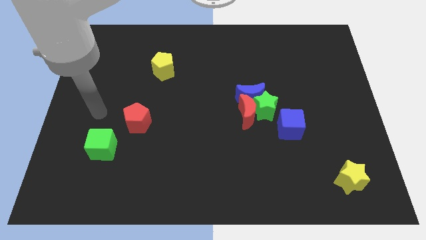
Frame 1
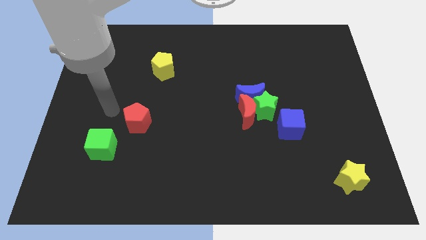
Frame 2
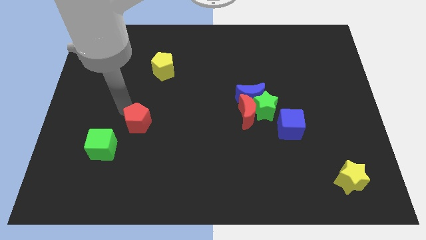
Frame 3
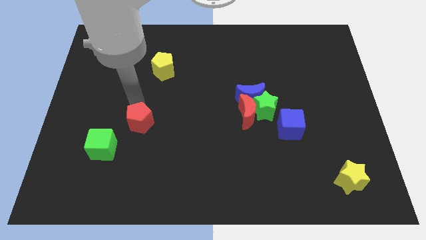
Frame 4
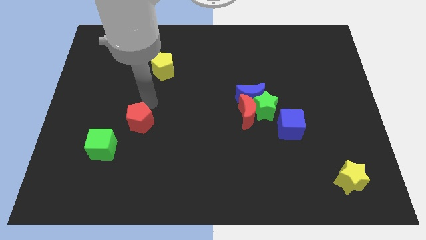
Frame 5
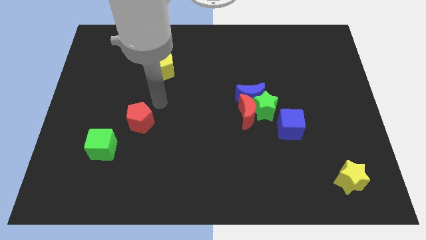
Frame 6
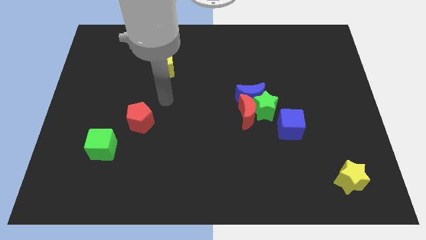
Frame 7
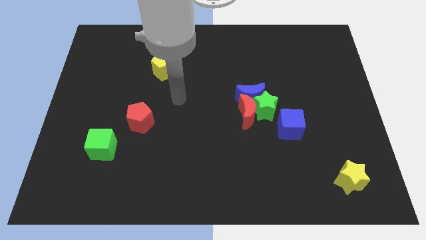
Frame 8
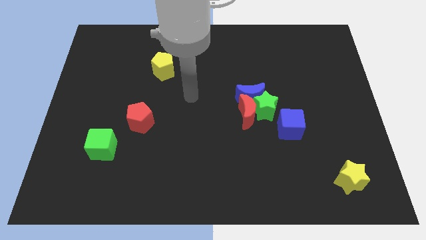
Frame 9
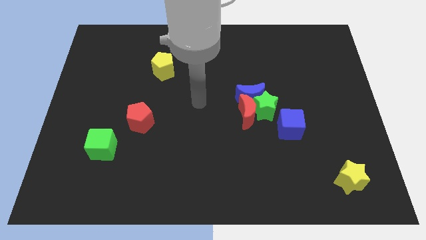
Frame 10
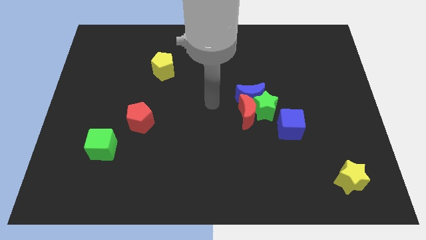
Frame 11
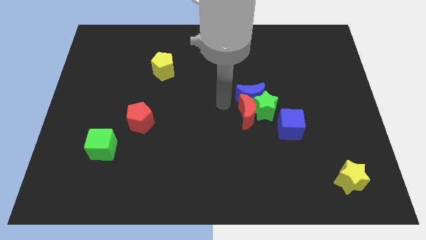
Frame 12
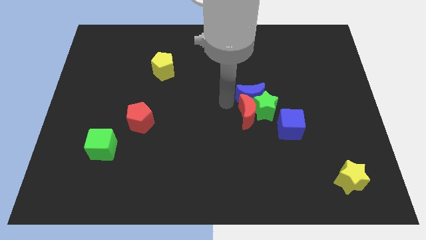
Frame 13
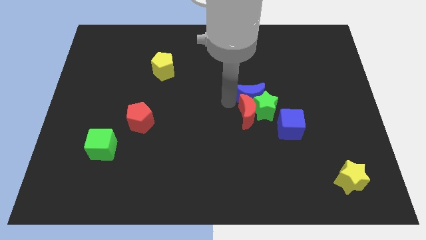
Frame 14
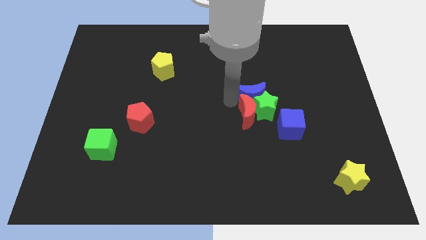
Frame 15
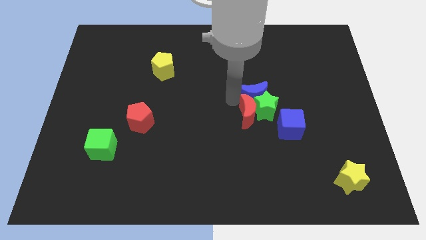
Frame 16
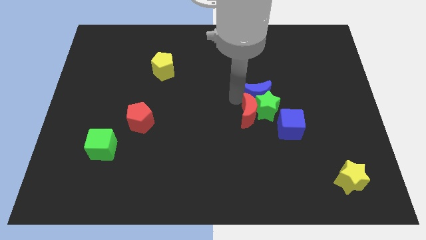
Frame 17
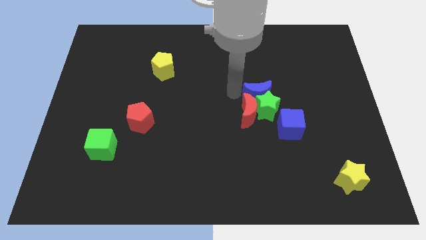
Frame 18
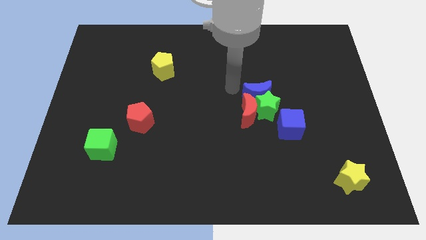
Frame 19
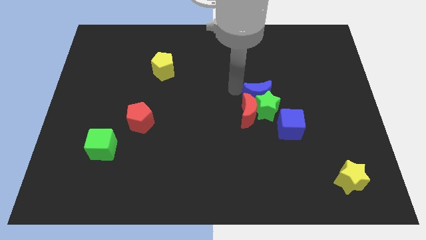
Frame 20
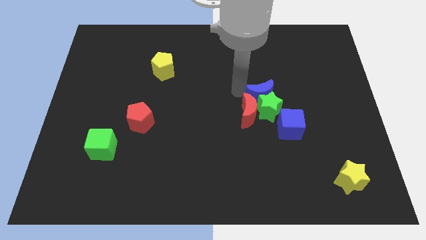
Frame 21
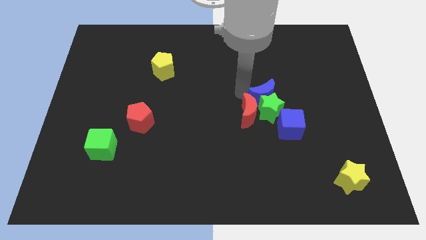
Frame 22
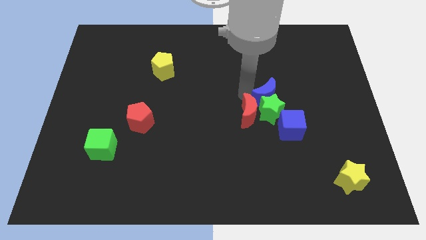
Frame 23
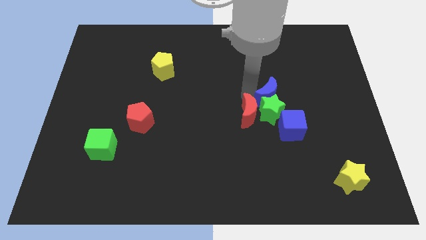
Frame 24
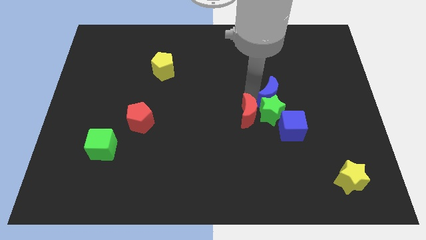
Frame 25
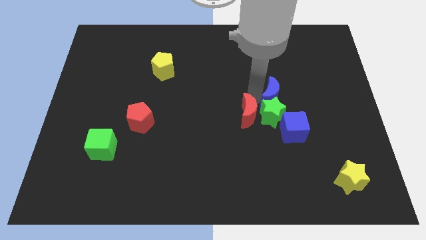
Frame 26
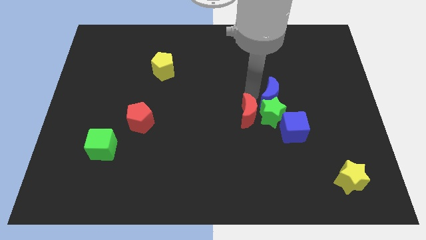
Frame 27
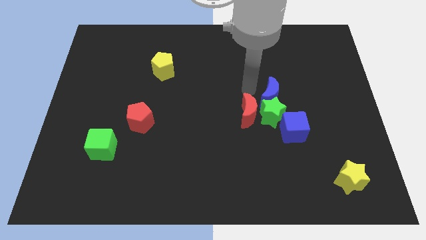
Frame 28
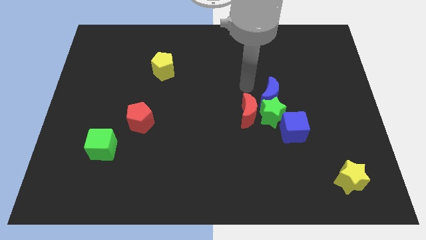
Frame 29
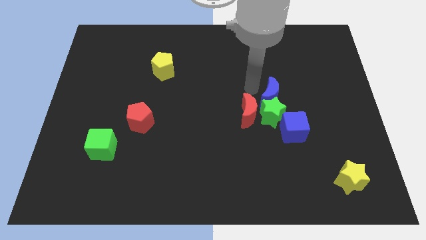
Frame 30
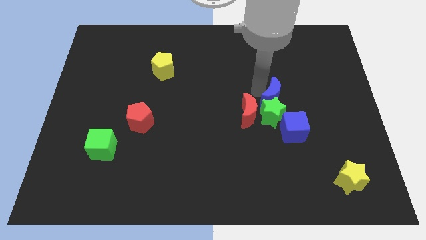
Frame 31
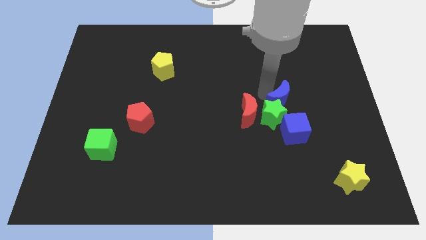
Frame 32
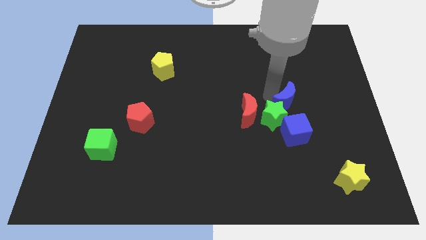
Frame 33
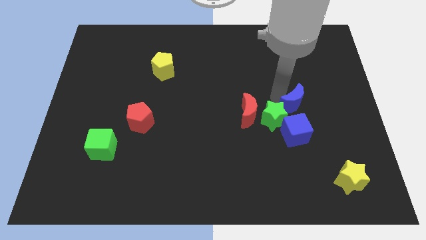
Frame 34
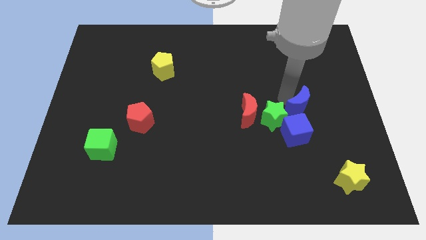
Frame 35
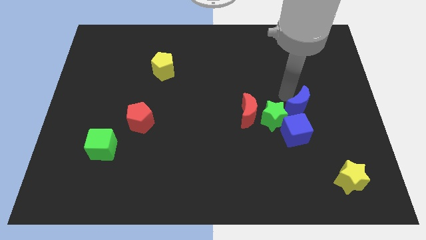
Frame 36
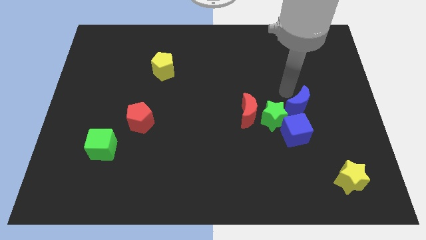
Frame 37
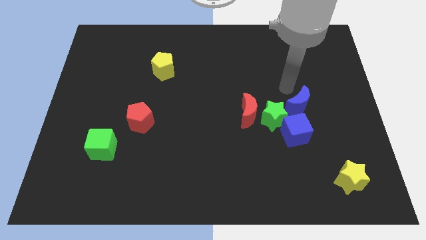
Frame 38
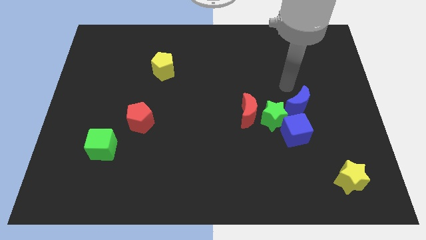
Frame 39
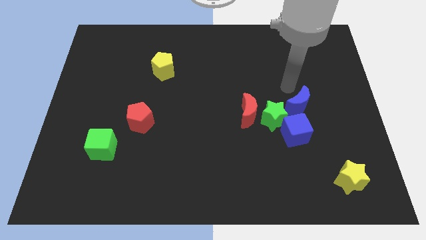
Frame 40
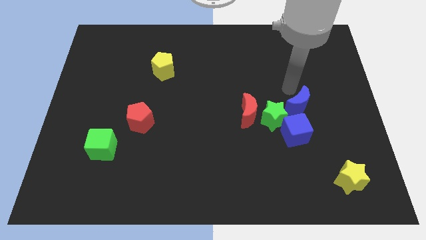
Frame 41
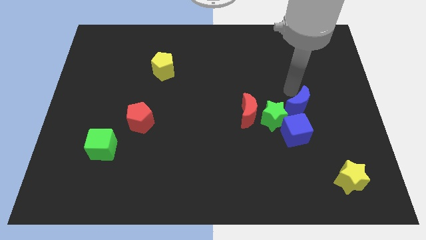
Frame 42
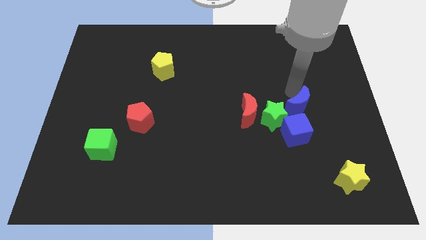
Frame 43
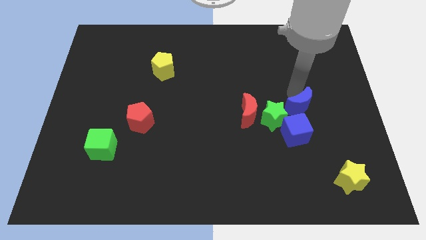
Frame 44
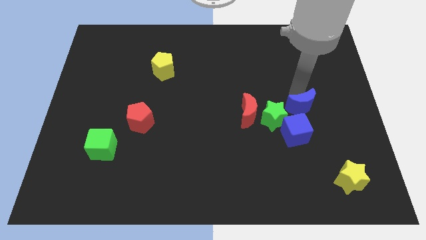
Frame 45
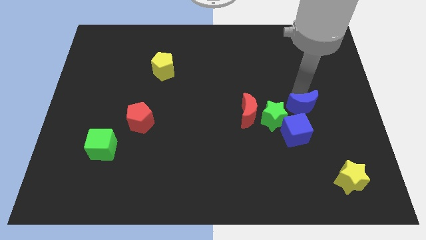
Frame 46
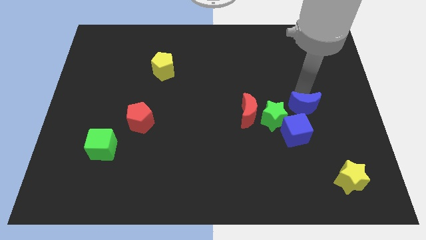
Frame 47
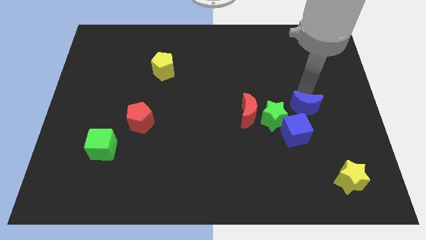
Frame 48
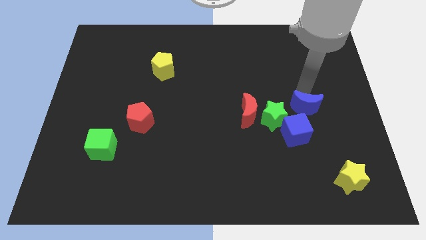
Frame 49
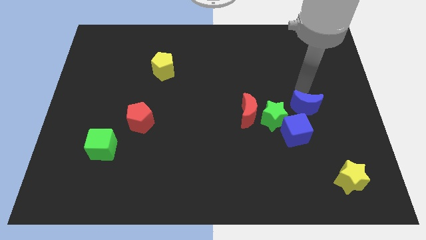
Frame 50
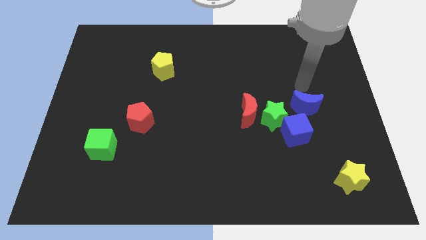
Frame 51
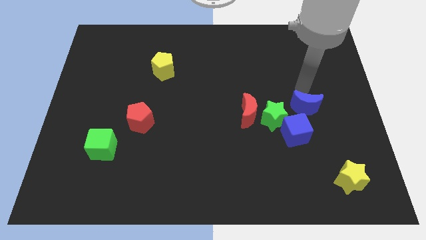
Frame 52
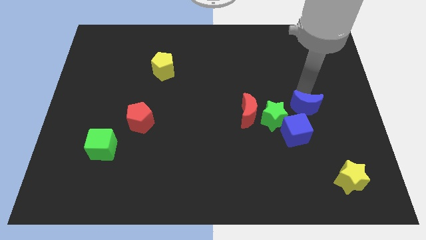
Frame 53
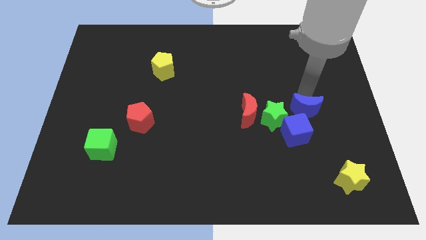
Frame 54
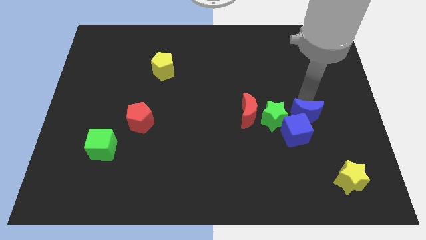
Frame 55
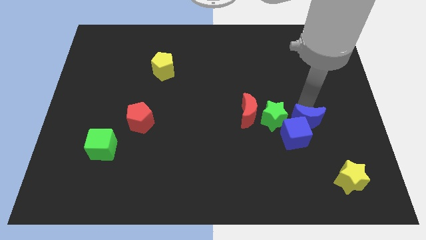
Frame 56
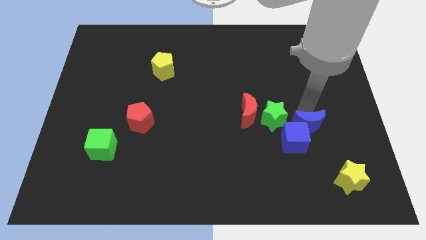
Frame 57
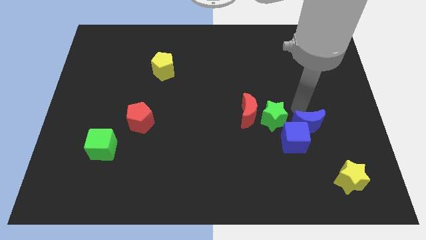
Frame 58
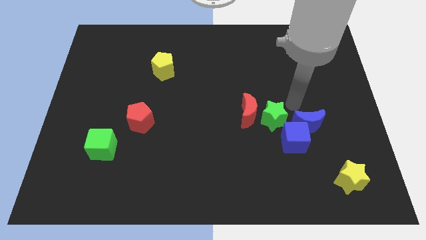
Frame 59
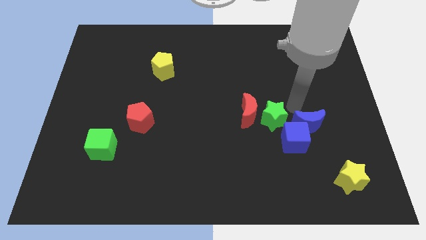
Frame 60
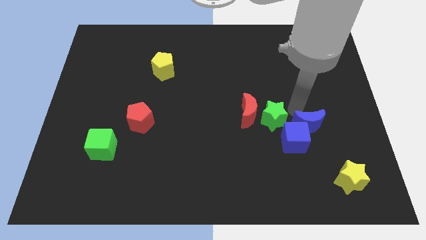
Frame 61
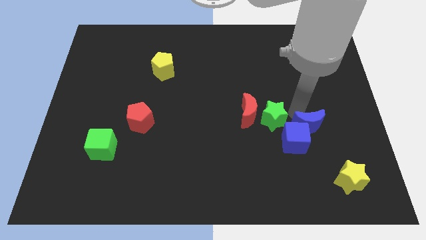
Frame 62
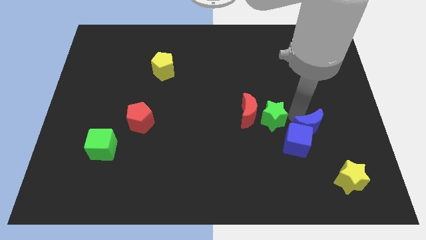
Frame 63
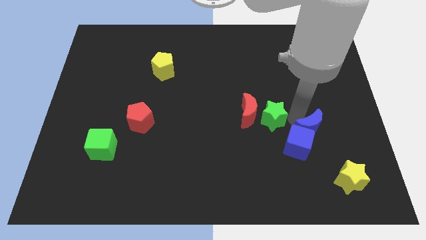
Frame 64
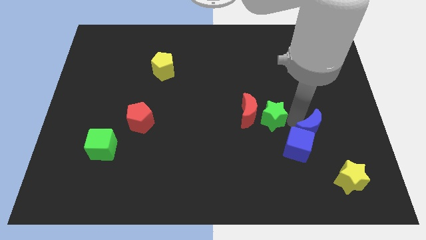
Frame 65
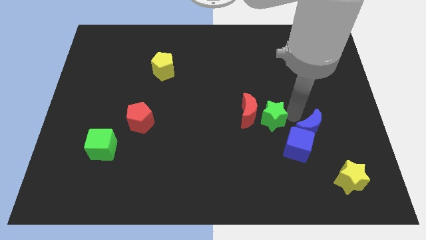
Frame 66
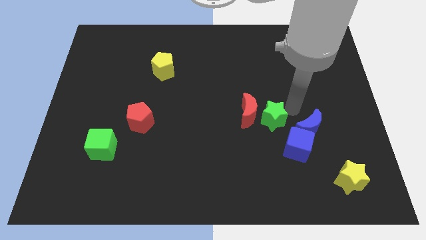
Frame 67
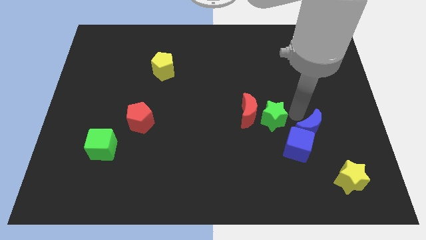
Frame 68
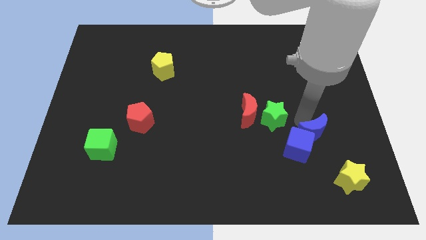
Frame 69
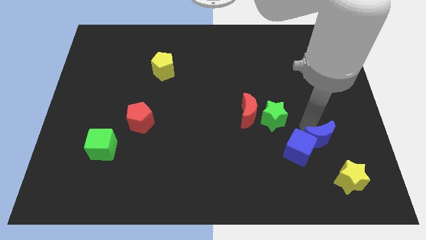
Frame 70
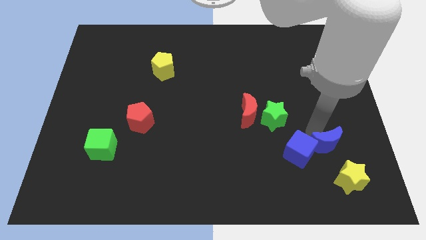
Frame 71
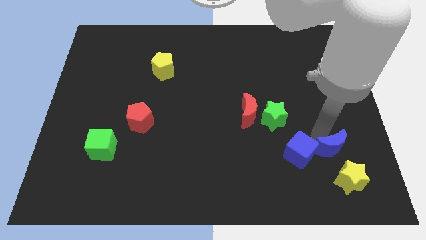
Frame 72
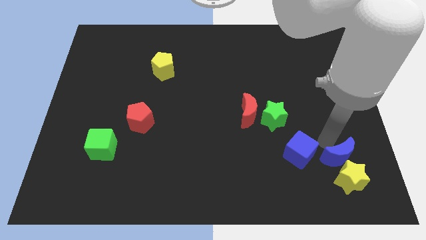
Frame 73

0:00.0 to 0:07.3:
slide the blue moon towards the yellow star

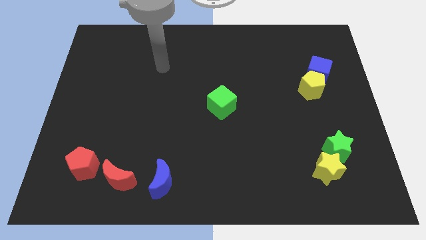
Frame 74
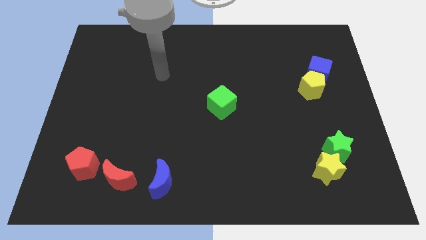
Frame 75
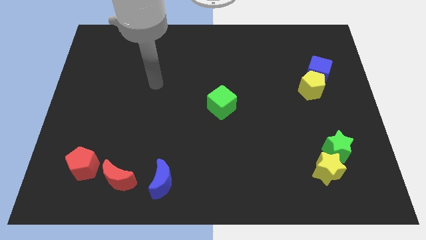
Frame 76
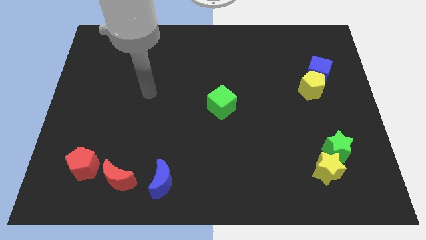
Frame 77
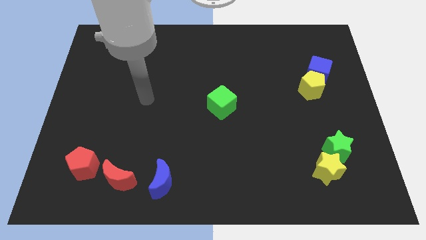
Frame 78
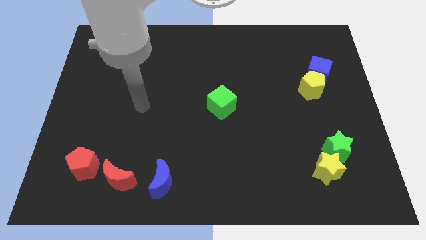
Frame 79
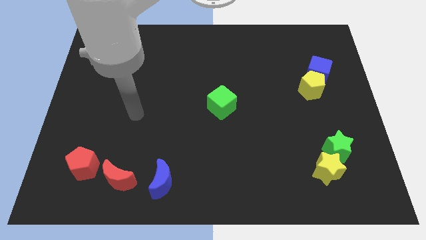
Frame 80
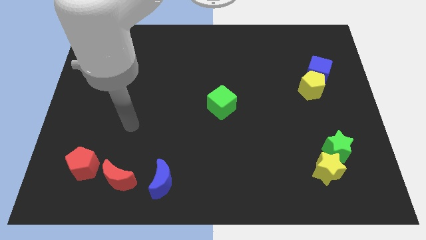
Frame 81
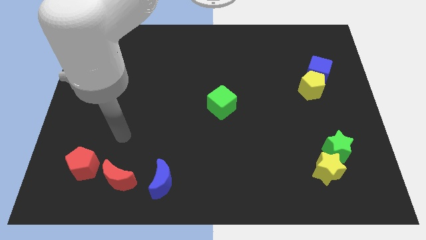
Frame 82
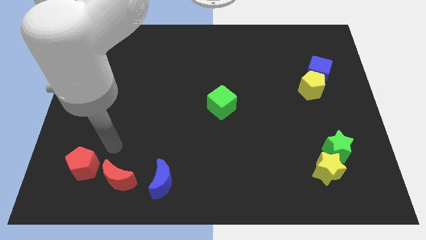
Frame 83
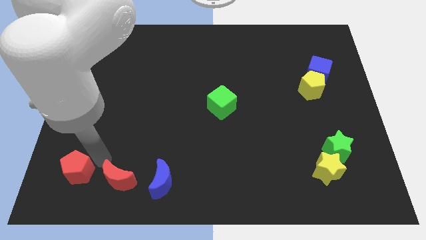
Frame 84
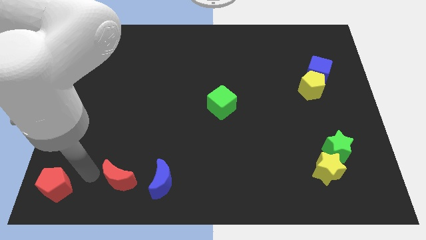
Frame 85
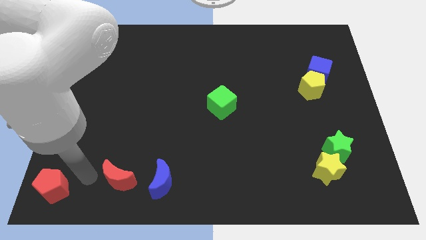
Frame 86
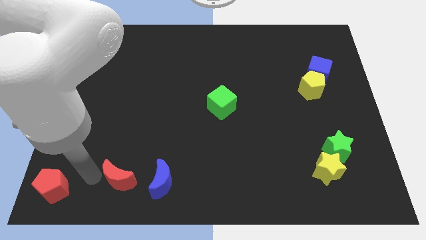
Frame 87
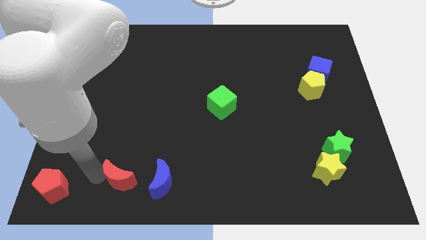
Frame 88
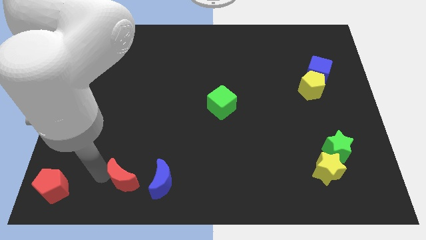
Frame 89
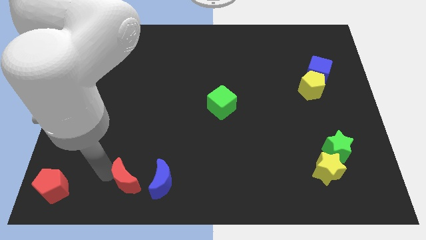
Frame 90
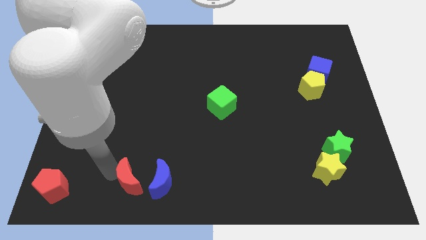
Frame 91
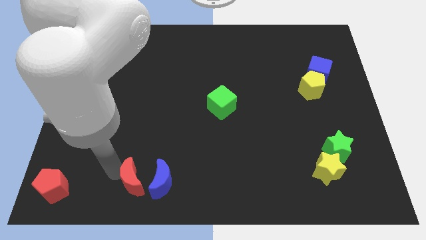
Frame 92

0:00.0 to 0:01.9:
put the red moon next to the blue moon
